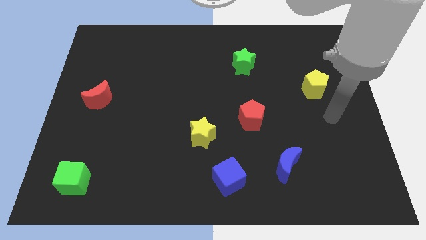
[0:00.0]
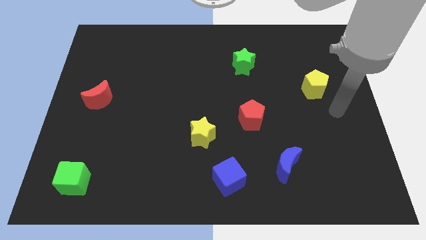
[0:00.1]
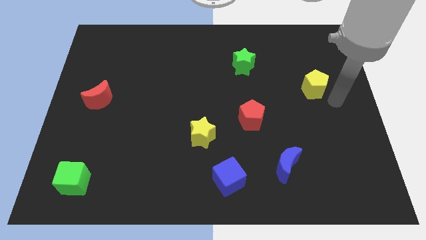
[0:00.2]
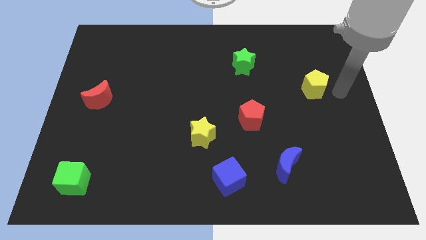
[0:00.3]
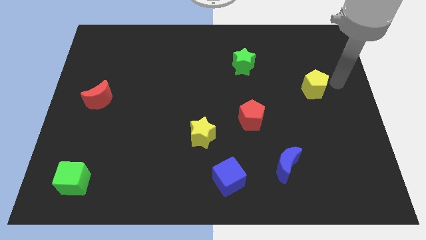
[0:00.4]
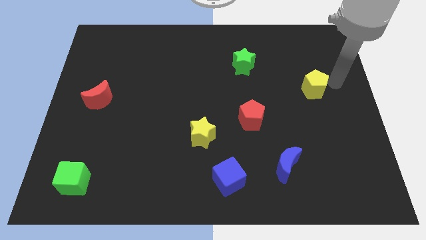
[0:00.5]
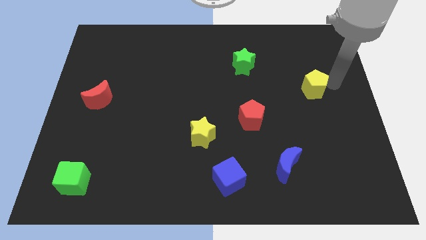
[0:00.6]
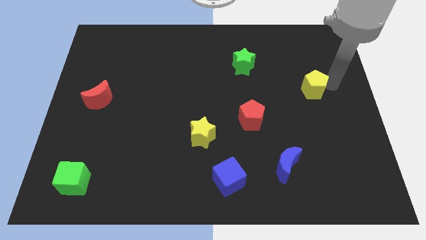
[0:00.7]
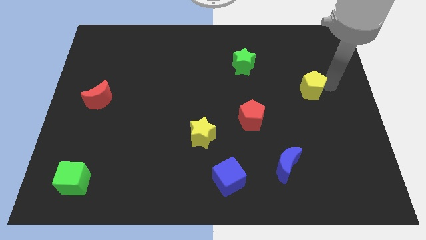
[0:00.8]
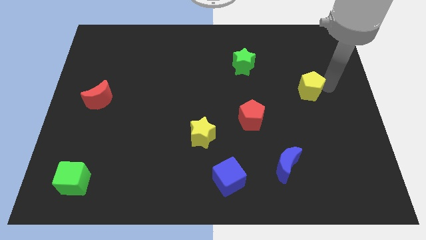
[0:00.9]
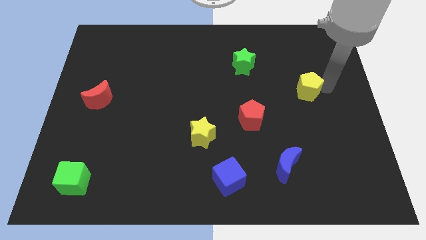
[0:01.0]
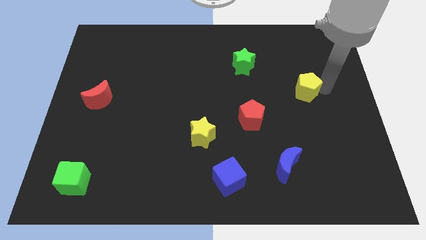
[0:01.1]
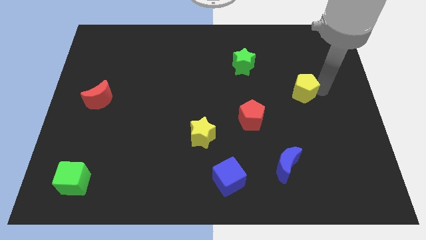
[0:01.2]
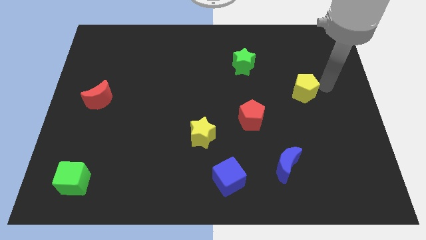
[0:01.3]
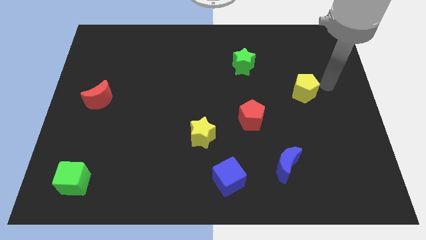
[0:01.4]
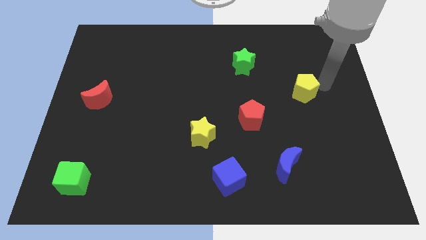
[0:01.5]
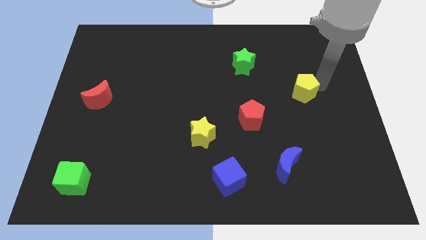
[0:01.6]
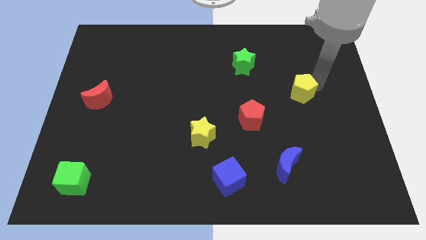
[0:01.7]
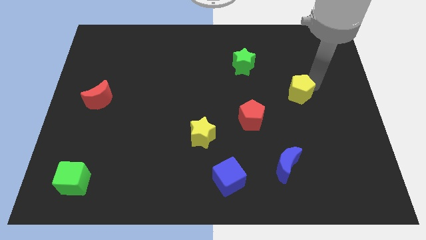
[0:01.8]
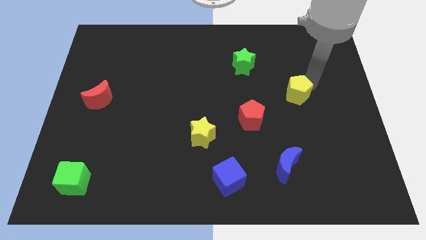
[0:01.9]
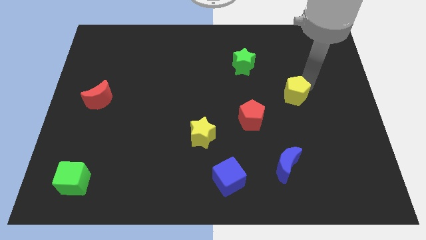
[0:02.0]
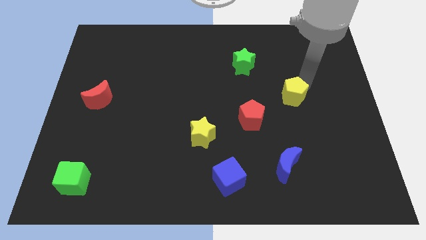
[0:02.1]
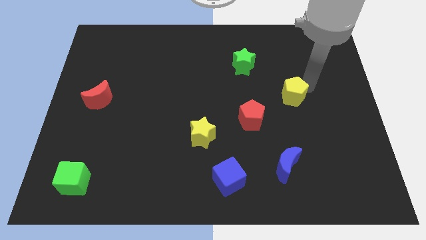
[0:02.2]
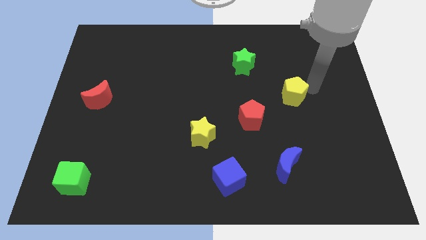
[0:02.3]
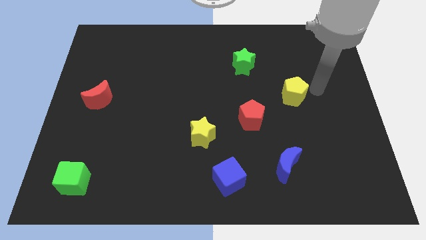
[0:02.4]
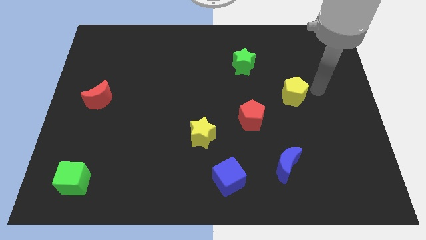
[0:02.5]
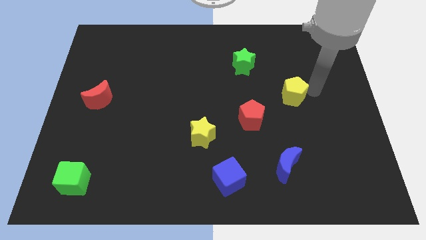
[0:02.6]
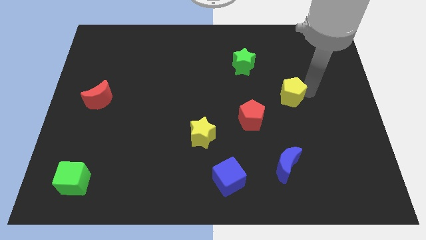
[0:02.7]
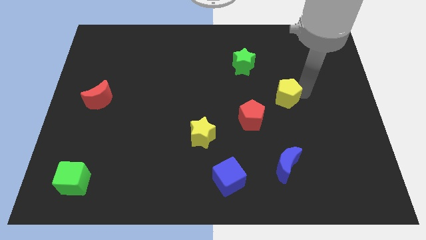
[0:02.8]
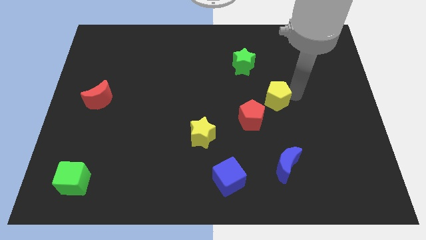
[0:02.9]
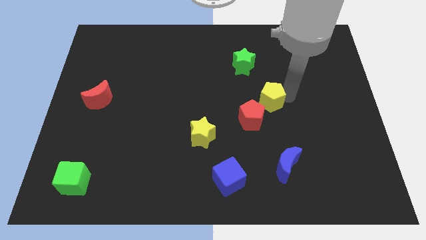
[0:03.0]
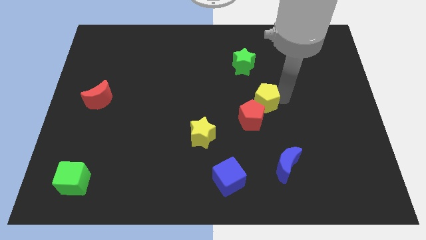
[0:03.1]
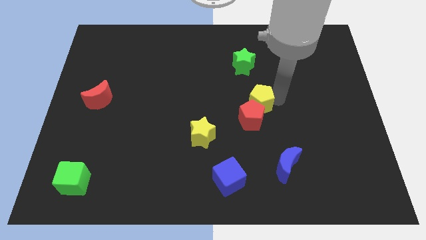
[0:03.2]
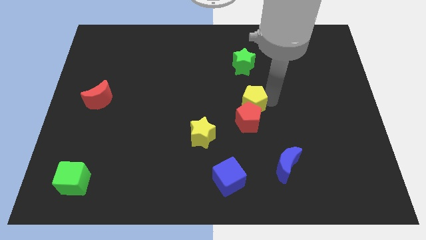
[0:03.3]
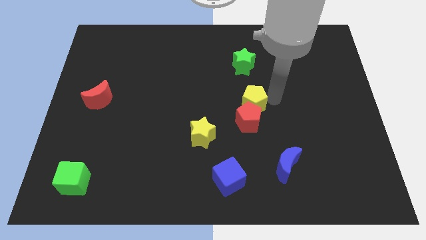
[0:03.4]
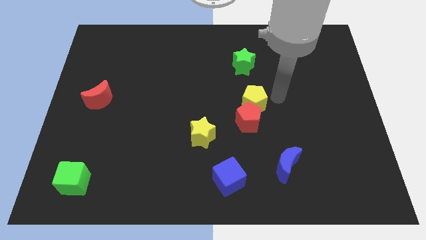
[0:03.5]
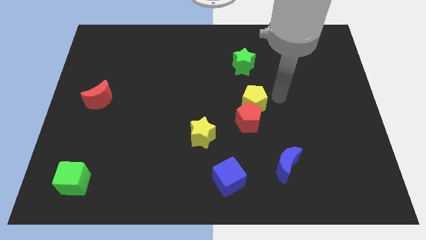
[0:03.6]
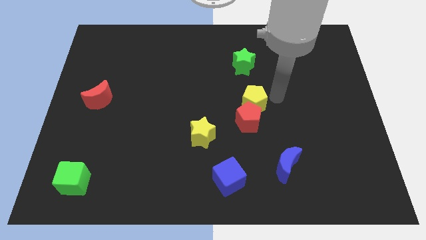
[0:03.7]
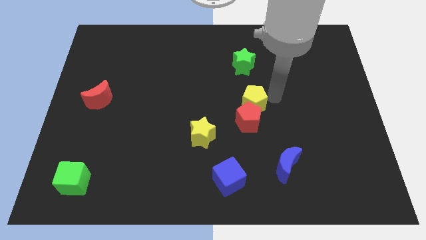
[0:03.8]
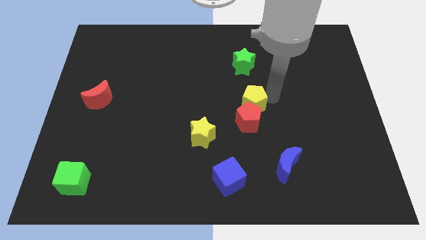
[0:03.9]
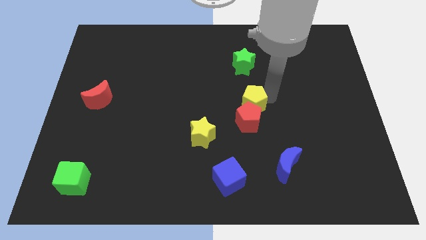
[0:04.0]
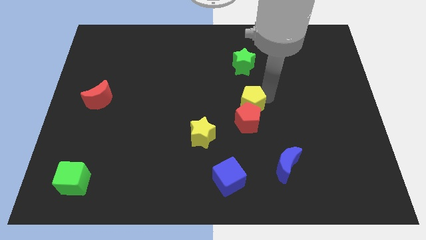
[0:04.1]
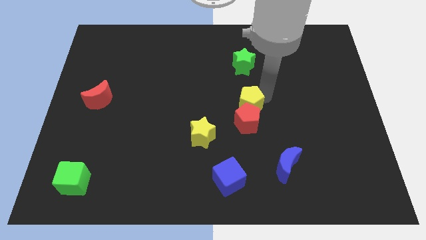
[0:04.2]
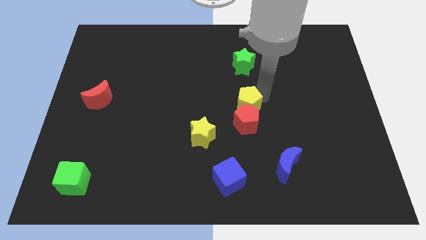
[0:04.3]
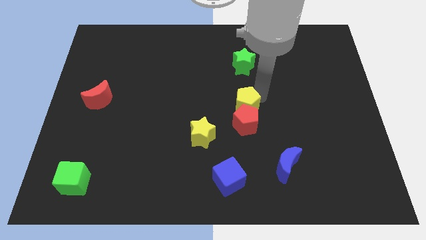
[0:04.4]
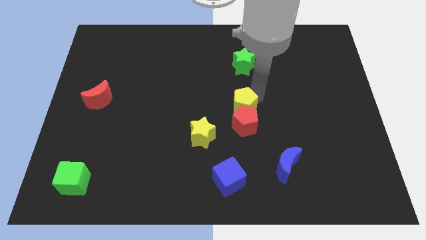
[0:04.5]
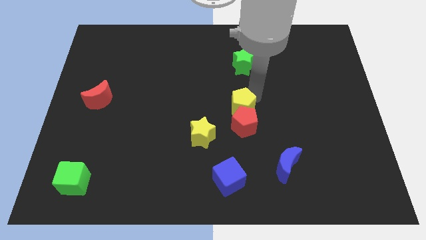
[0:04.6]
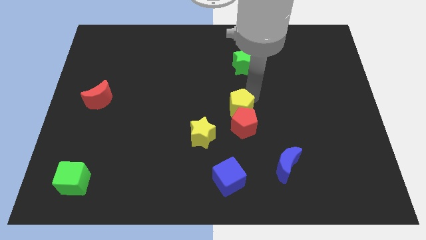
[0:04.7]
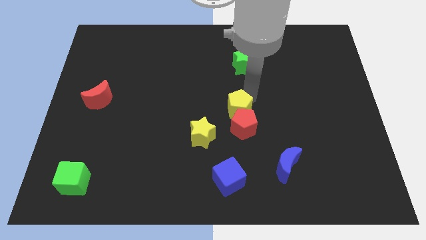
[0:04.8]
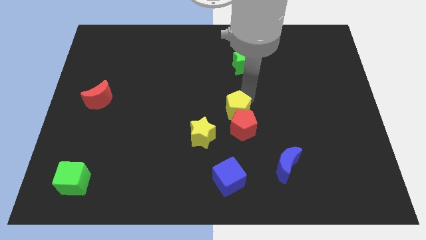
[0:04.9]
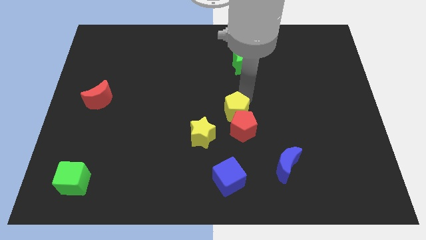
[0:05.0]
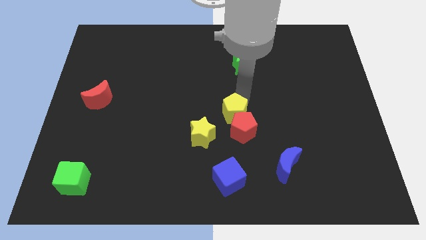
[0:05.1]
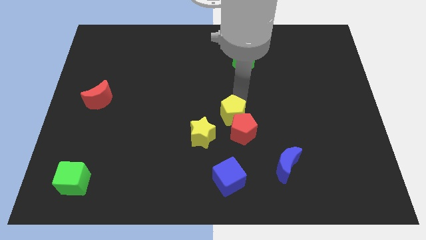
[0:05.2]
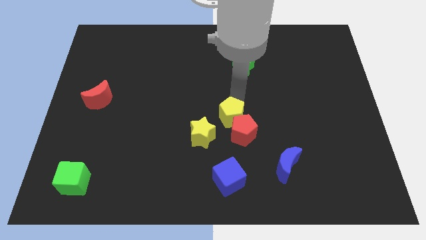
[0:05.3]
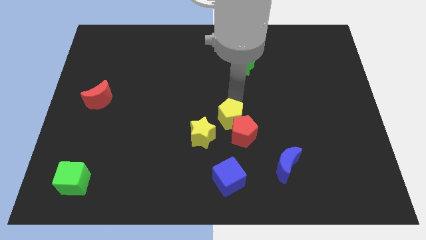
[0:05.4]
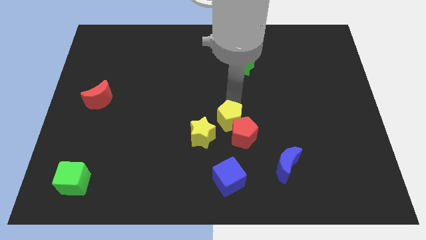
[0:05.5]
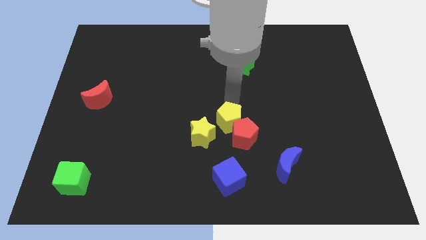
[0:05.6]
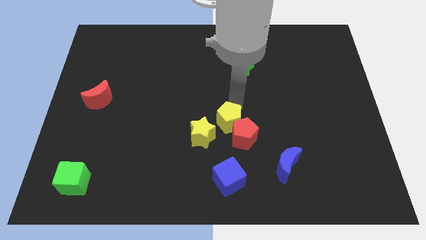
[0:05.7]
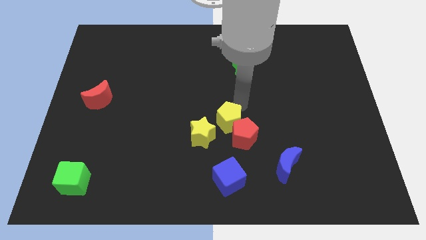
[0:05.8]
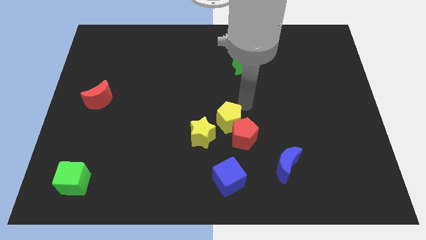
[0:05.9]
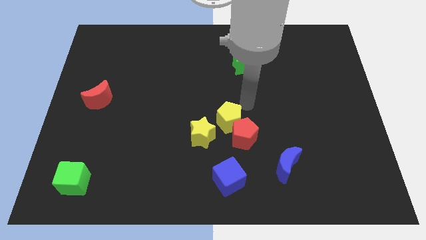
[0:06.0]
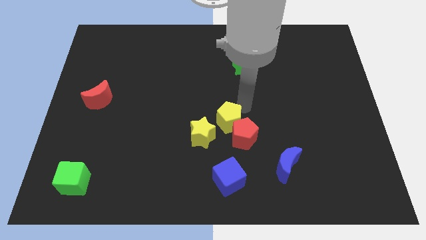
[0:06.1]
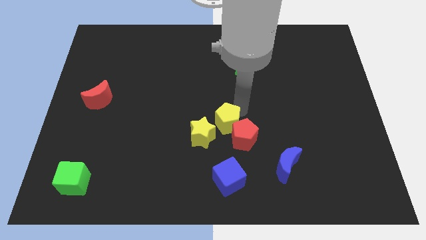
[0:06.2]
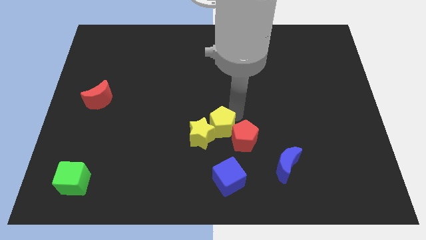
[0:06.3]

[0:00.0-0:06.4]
slide the yellow pentagon next to the yellow star

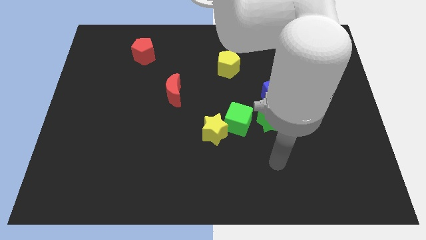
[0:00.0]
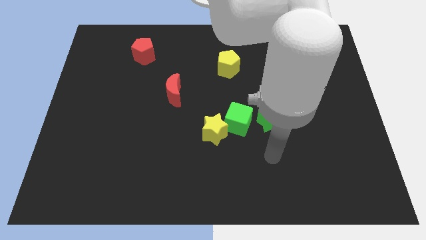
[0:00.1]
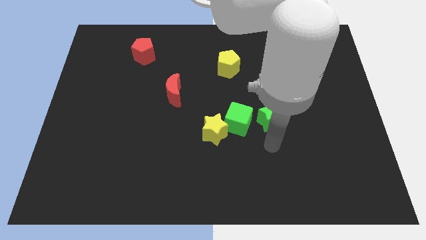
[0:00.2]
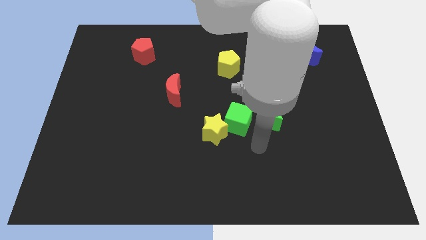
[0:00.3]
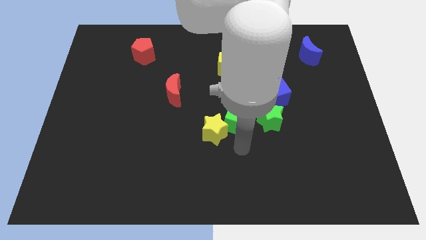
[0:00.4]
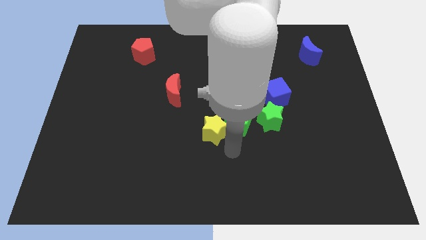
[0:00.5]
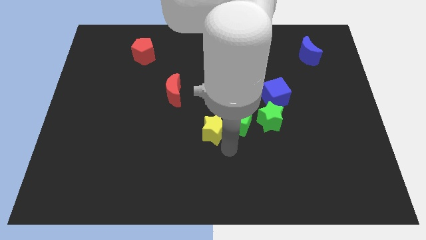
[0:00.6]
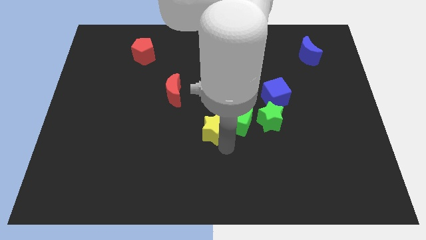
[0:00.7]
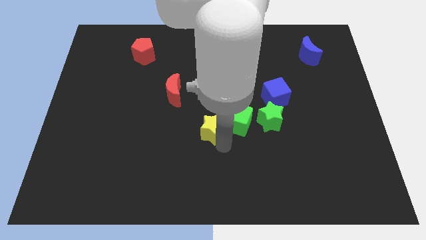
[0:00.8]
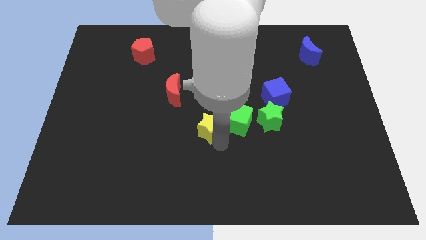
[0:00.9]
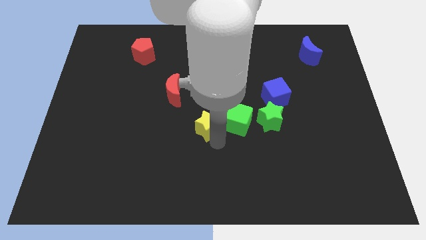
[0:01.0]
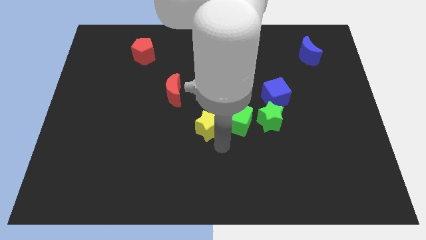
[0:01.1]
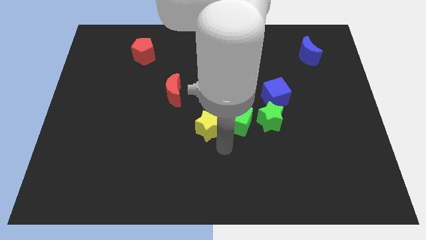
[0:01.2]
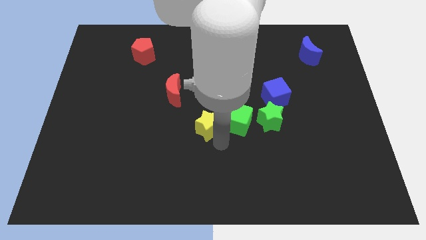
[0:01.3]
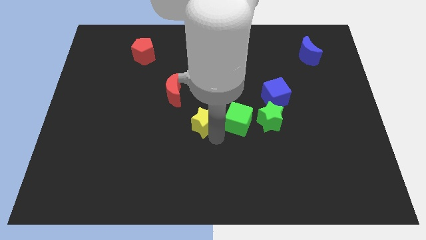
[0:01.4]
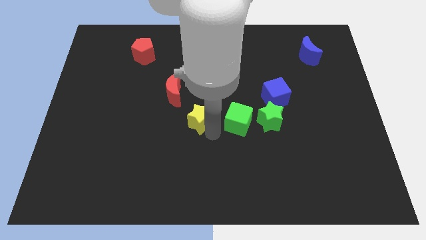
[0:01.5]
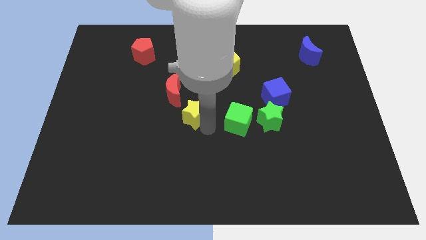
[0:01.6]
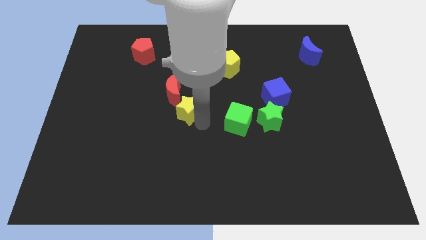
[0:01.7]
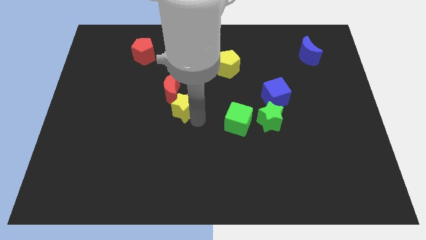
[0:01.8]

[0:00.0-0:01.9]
push the yellow star next to the red moon
